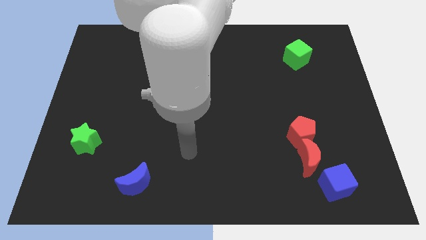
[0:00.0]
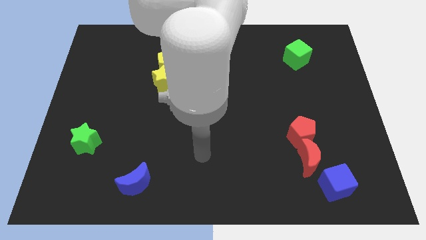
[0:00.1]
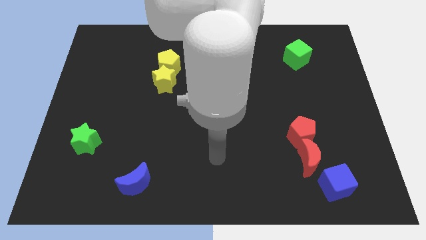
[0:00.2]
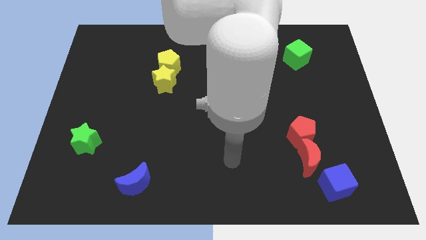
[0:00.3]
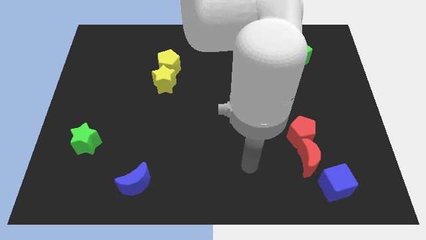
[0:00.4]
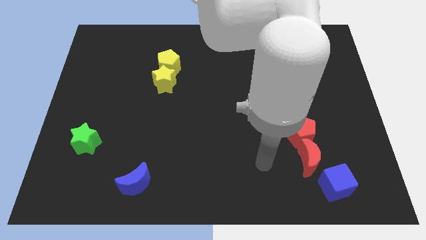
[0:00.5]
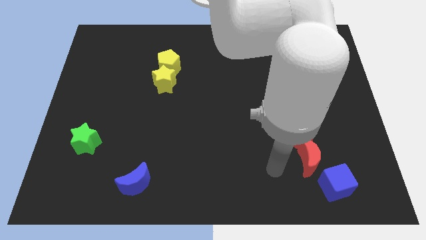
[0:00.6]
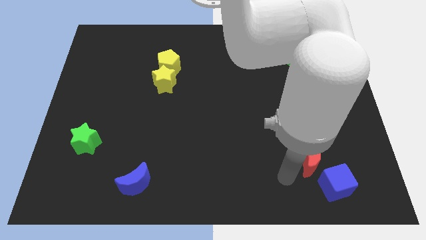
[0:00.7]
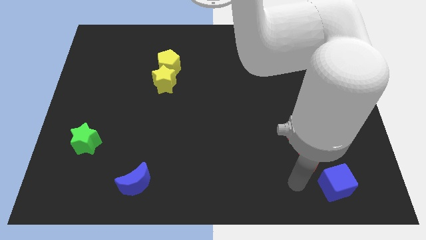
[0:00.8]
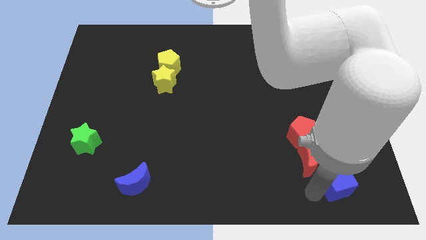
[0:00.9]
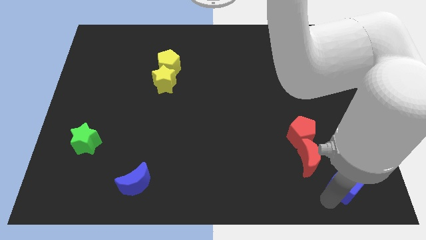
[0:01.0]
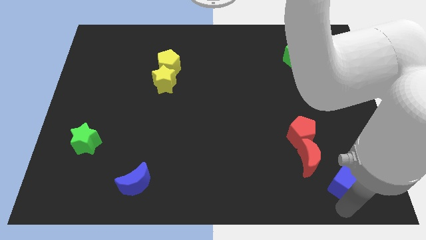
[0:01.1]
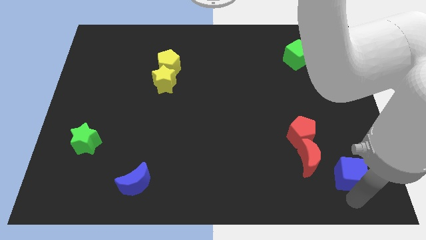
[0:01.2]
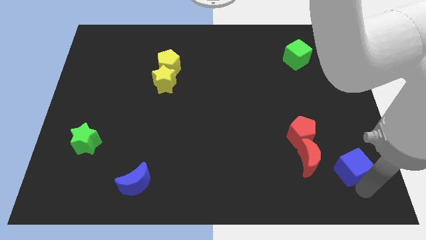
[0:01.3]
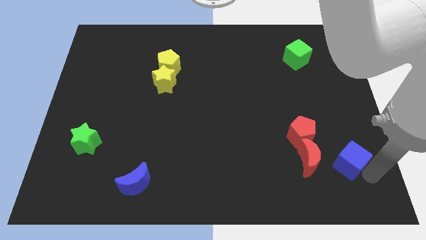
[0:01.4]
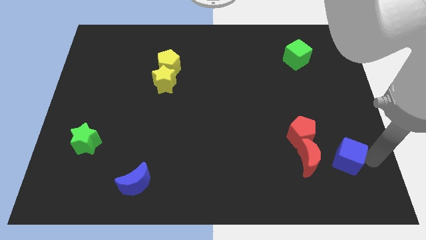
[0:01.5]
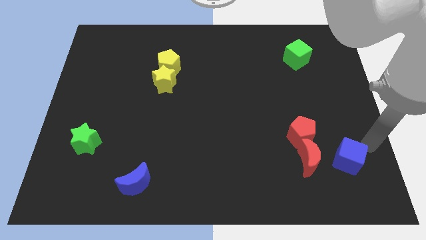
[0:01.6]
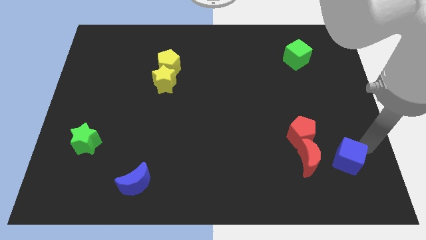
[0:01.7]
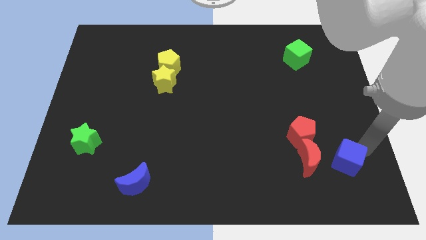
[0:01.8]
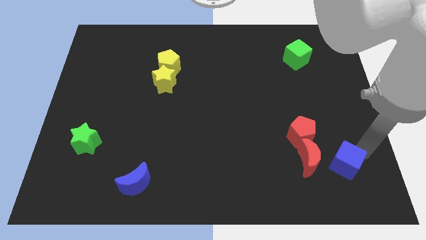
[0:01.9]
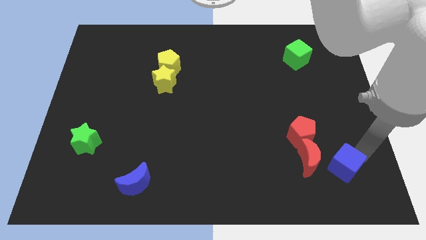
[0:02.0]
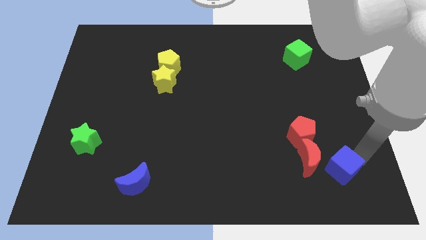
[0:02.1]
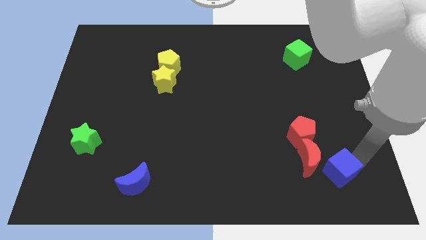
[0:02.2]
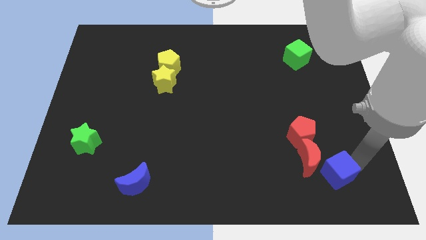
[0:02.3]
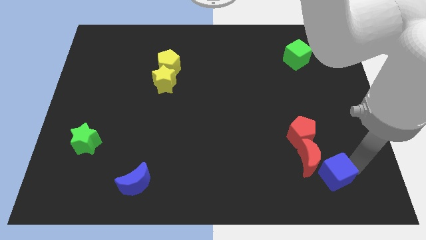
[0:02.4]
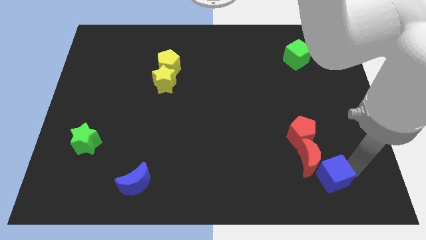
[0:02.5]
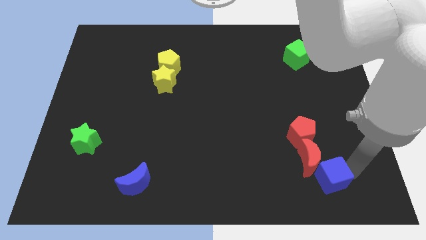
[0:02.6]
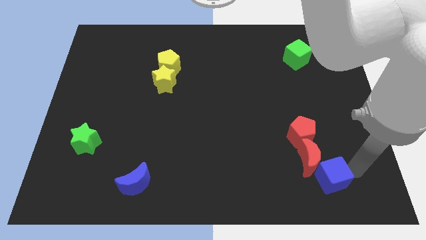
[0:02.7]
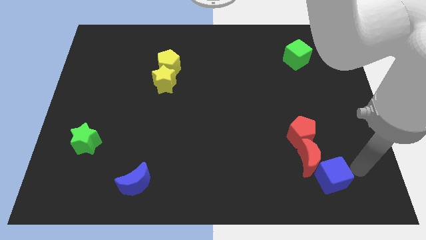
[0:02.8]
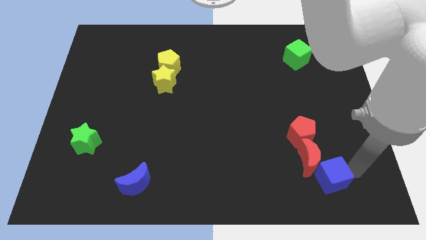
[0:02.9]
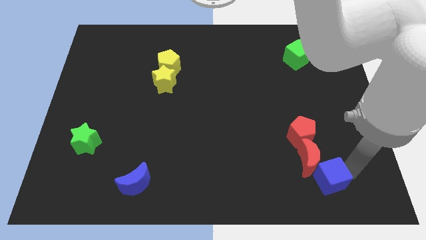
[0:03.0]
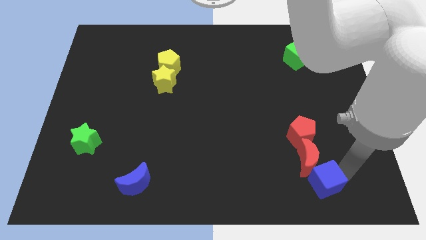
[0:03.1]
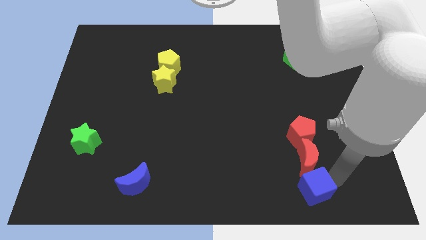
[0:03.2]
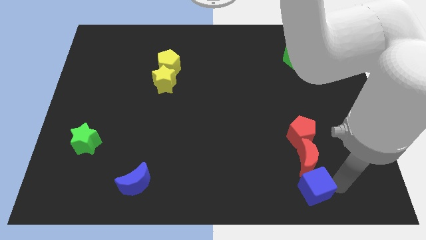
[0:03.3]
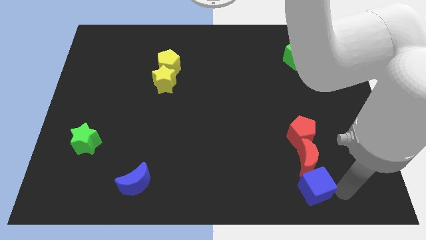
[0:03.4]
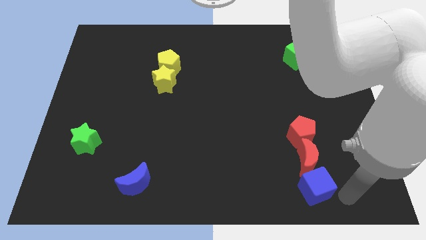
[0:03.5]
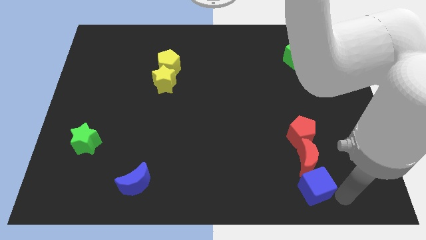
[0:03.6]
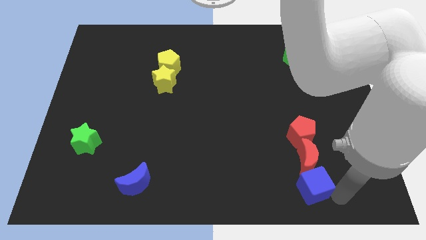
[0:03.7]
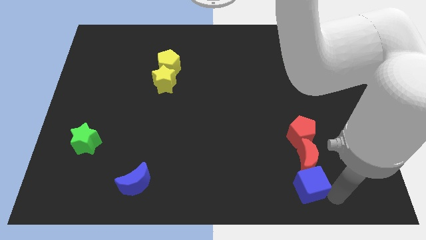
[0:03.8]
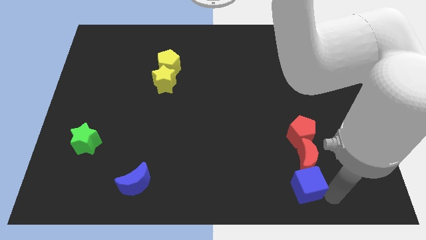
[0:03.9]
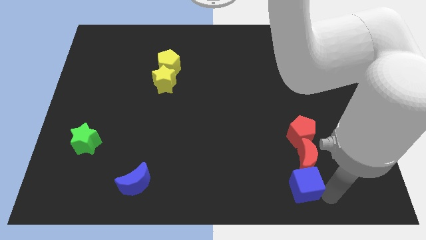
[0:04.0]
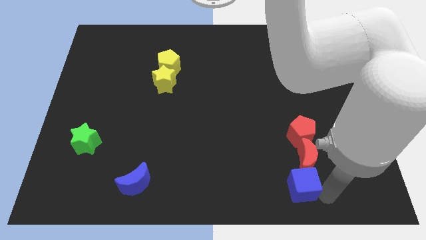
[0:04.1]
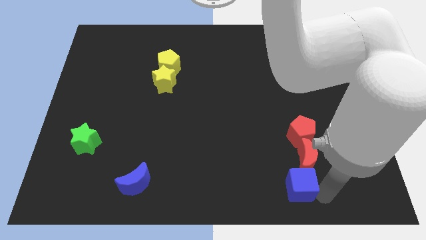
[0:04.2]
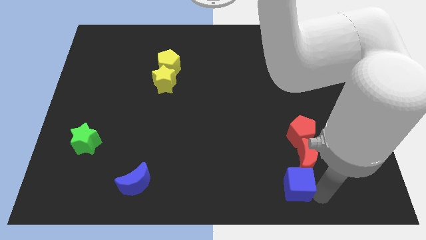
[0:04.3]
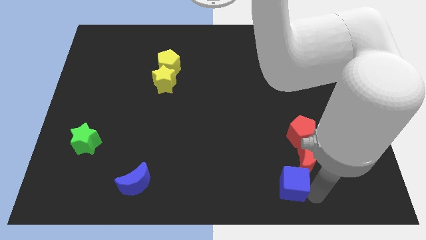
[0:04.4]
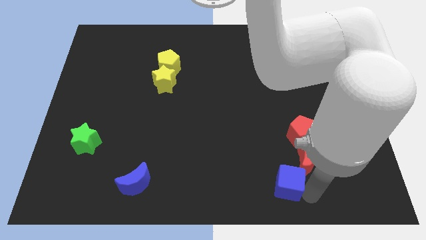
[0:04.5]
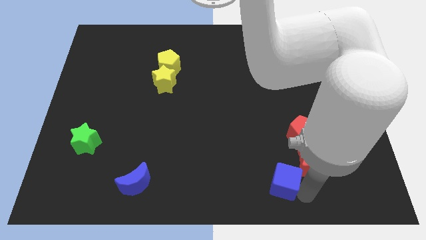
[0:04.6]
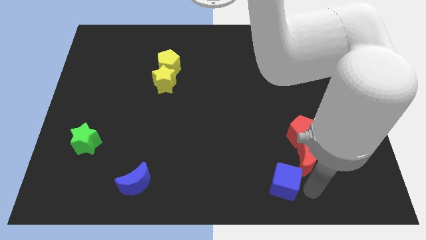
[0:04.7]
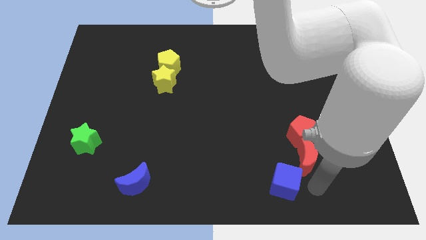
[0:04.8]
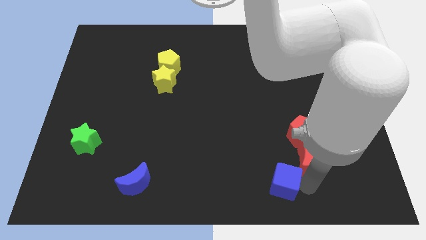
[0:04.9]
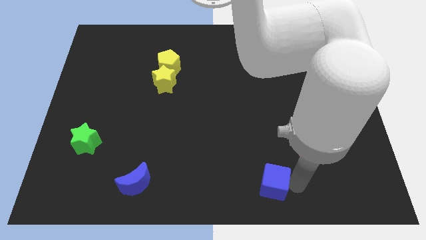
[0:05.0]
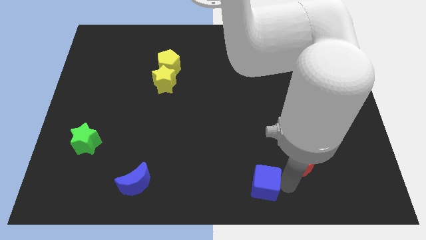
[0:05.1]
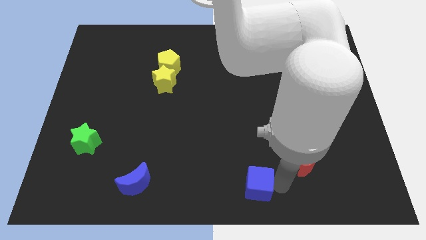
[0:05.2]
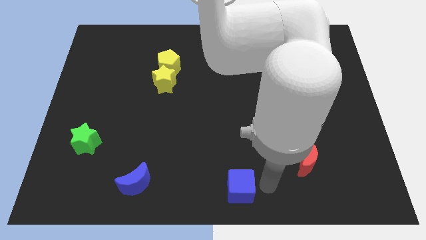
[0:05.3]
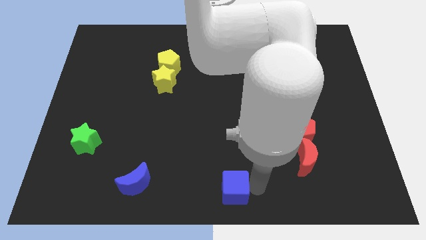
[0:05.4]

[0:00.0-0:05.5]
move the blue cube left

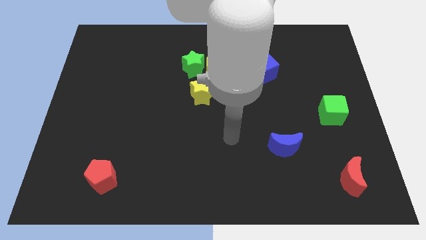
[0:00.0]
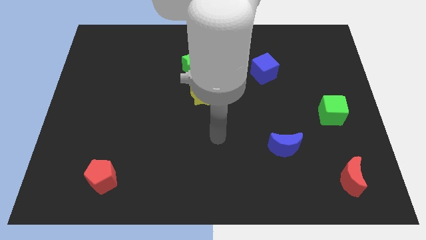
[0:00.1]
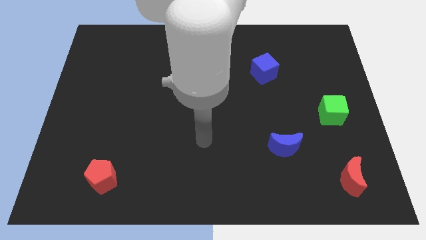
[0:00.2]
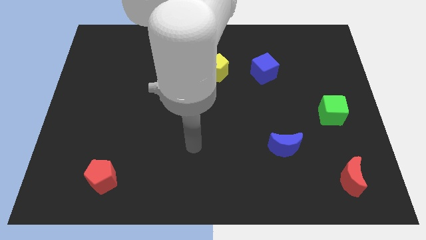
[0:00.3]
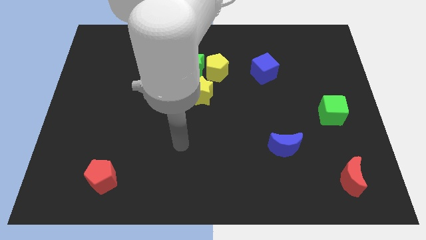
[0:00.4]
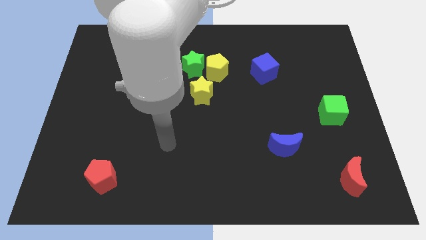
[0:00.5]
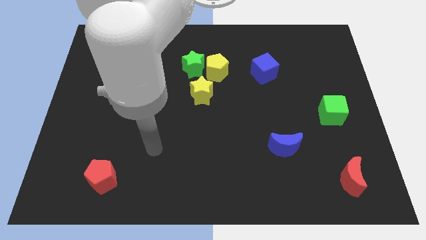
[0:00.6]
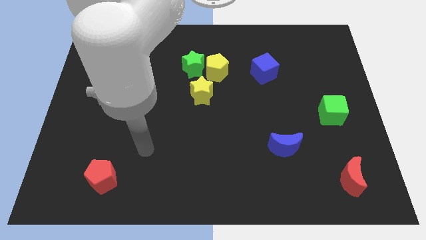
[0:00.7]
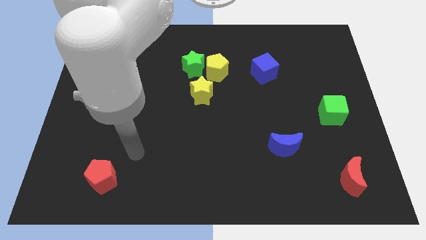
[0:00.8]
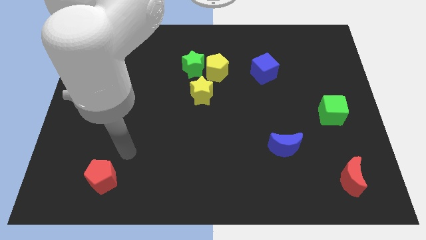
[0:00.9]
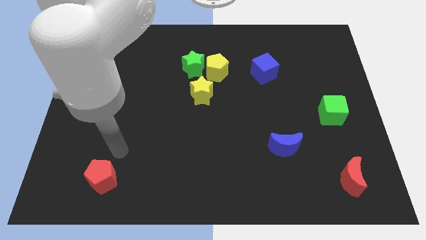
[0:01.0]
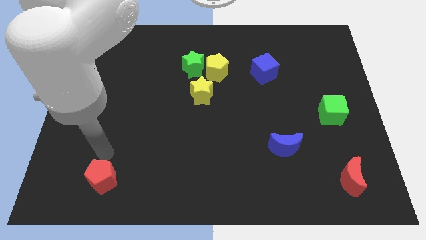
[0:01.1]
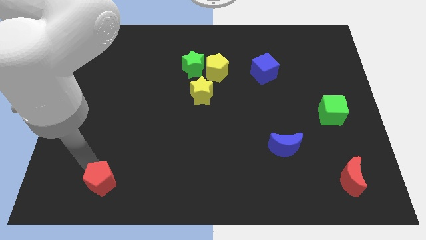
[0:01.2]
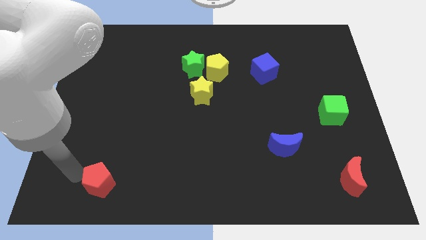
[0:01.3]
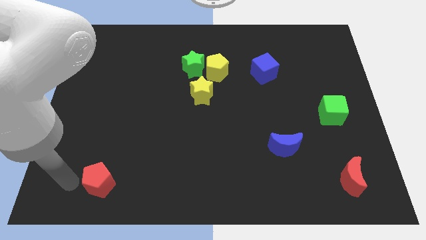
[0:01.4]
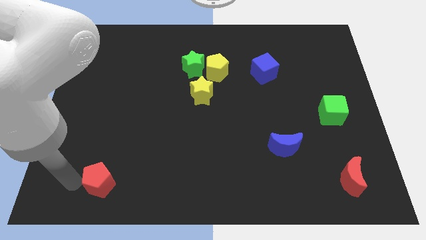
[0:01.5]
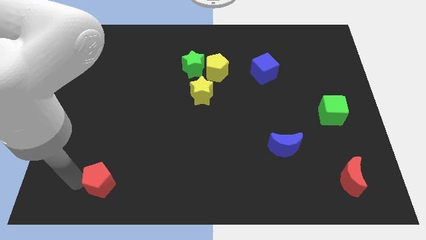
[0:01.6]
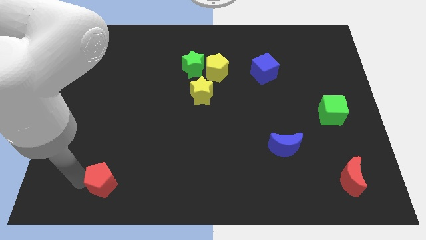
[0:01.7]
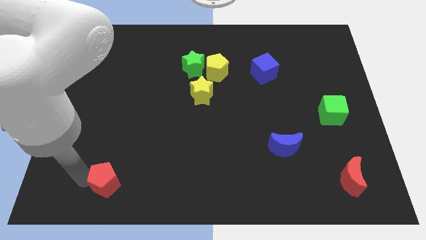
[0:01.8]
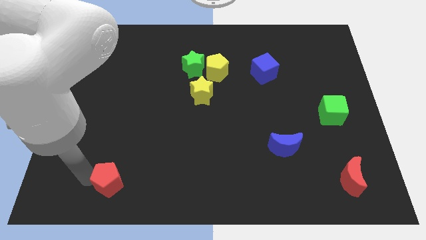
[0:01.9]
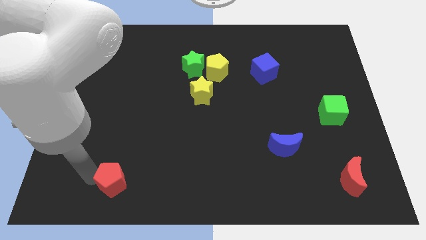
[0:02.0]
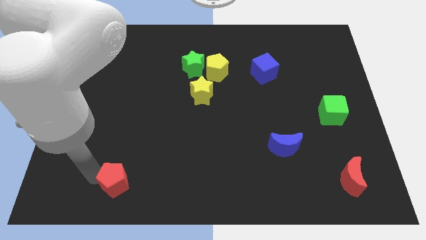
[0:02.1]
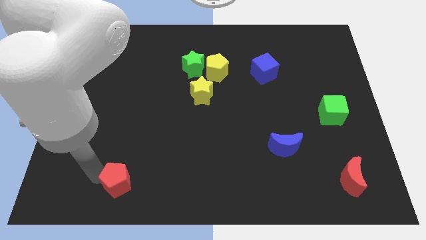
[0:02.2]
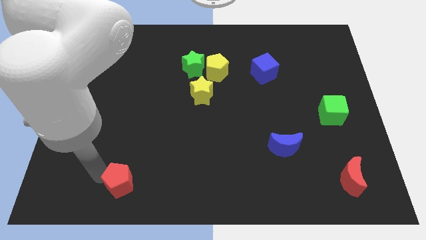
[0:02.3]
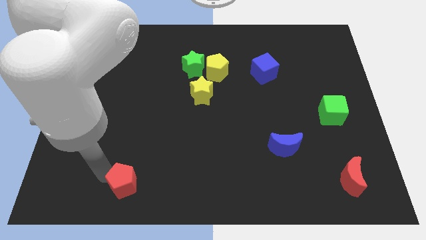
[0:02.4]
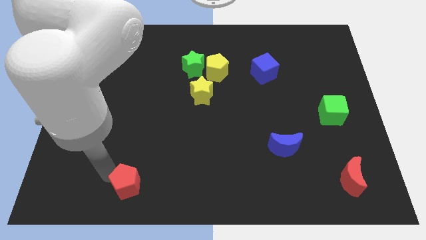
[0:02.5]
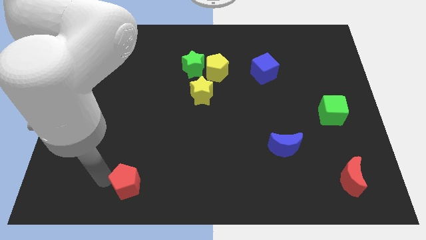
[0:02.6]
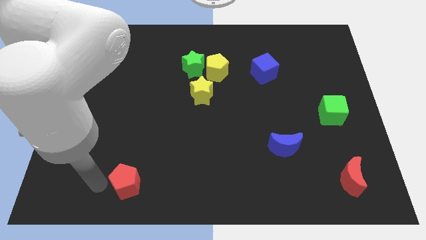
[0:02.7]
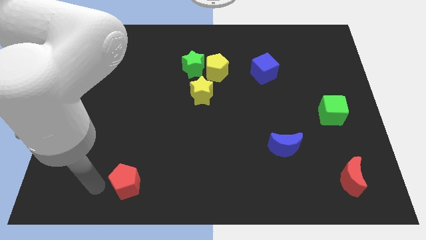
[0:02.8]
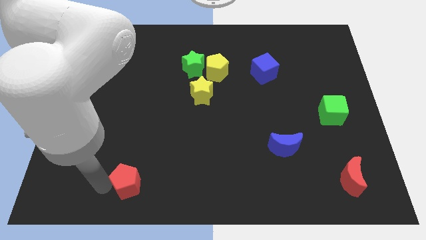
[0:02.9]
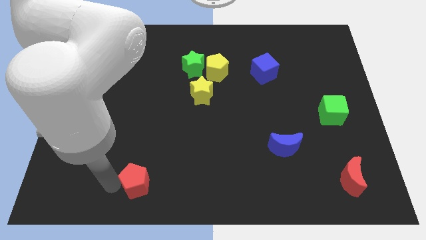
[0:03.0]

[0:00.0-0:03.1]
slide the red pentagon right a bit
